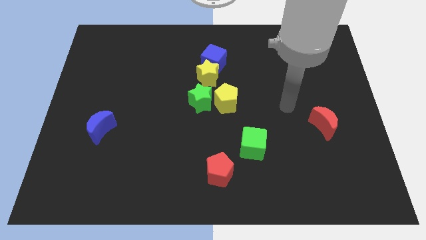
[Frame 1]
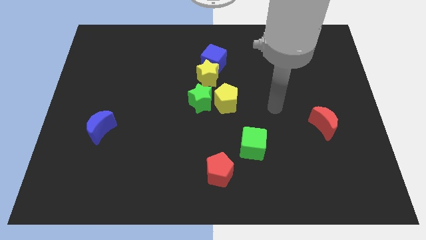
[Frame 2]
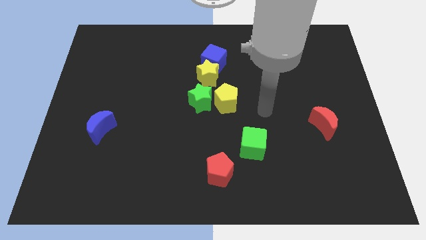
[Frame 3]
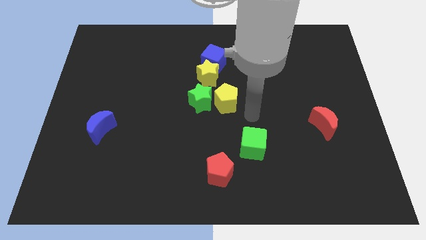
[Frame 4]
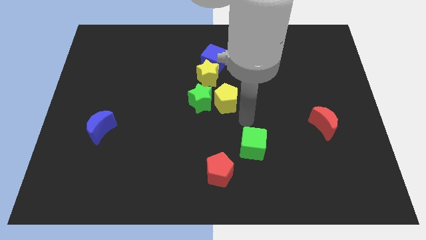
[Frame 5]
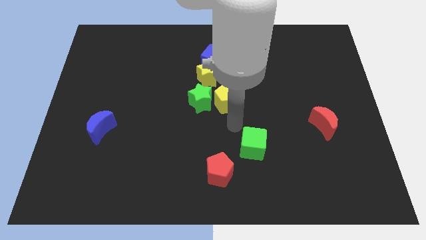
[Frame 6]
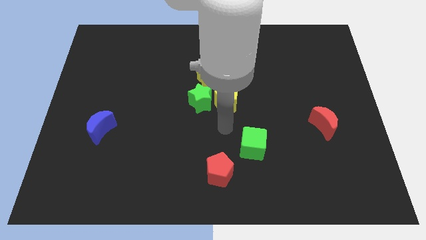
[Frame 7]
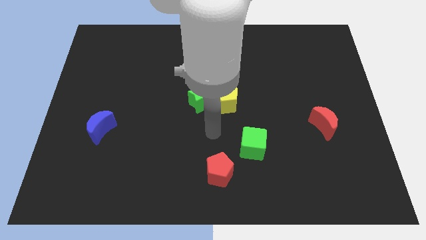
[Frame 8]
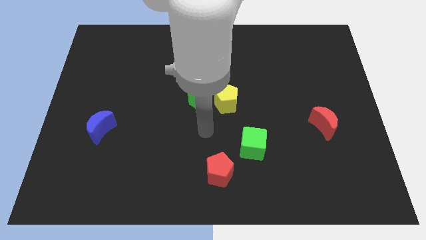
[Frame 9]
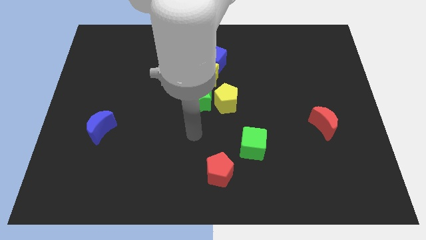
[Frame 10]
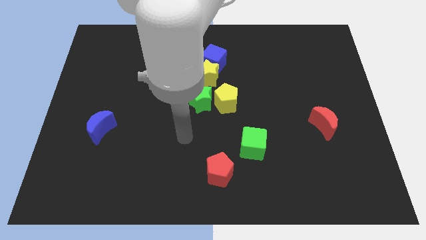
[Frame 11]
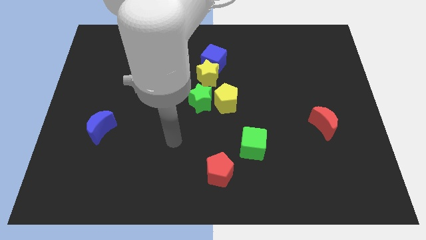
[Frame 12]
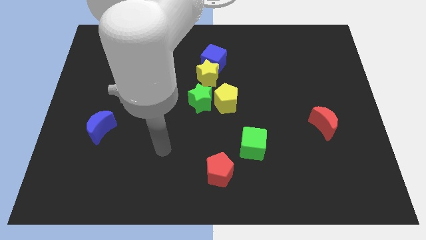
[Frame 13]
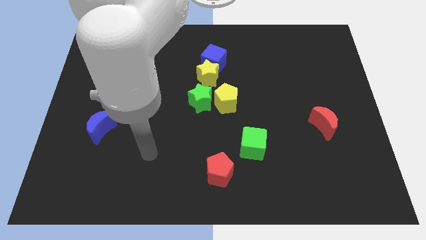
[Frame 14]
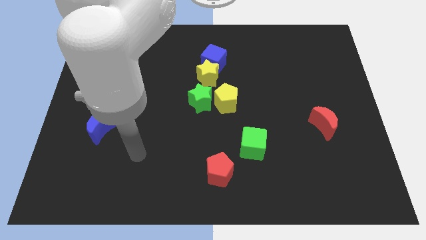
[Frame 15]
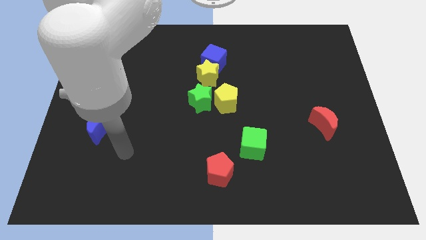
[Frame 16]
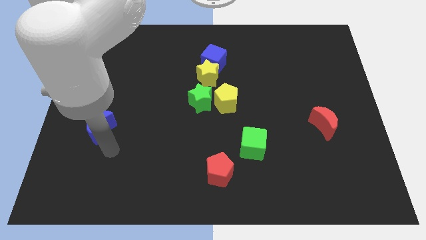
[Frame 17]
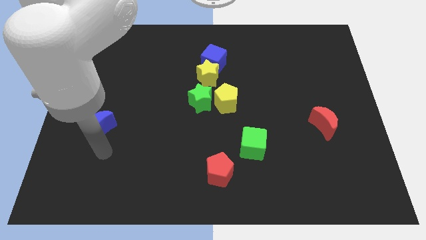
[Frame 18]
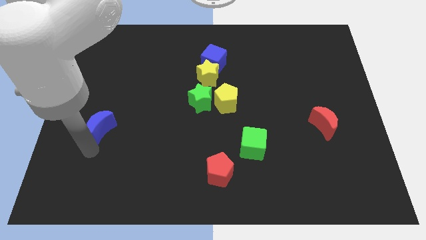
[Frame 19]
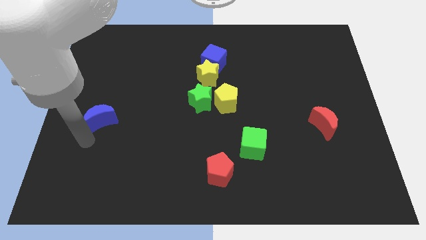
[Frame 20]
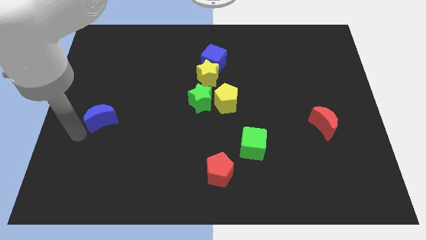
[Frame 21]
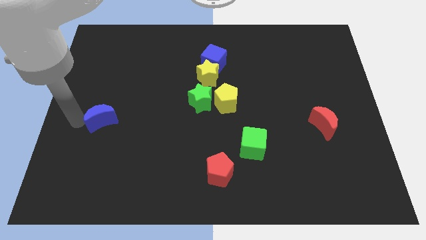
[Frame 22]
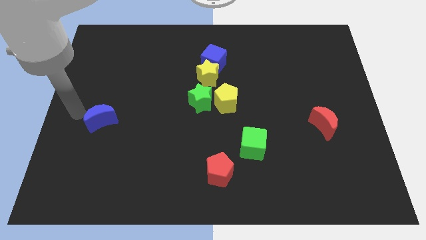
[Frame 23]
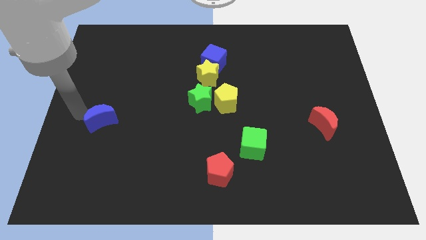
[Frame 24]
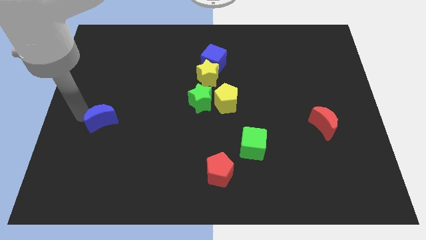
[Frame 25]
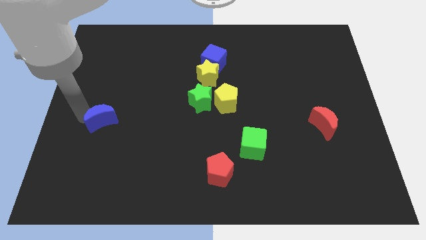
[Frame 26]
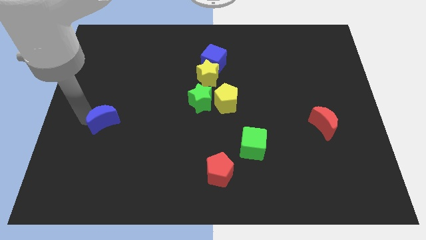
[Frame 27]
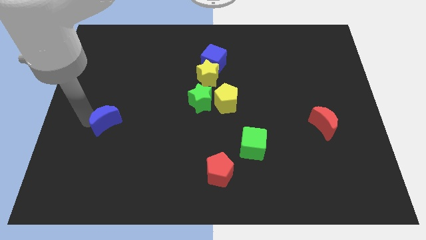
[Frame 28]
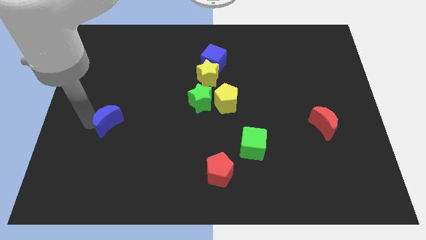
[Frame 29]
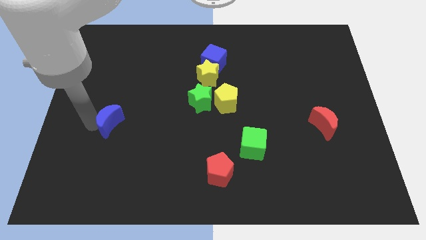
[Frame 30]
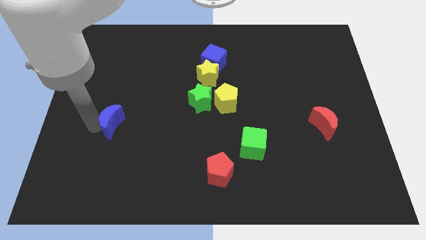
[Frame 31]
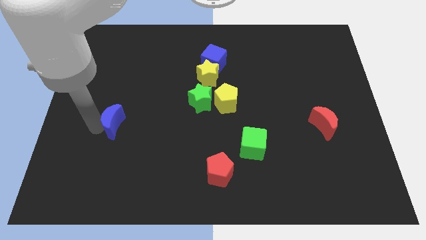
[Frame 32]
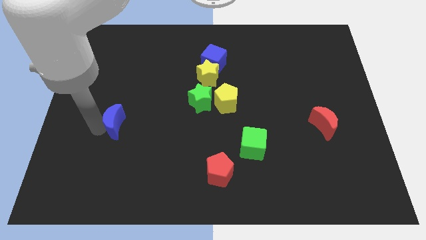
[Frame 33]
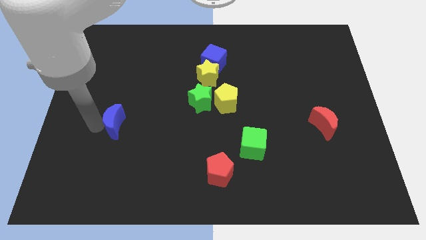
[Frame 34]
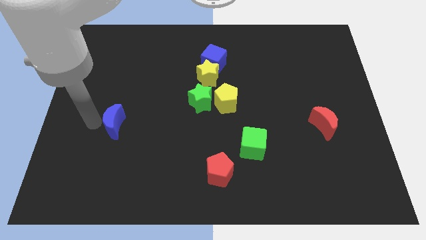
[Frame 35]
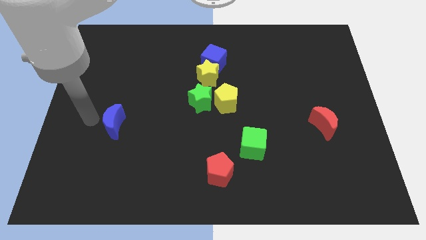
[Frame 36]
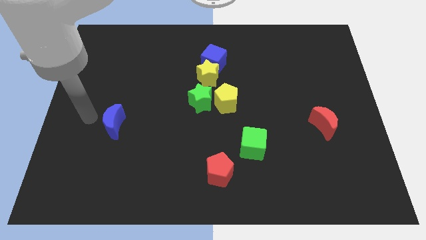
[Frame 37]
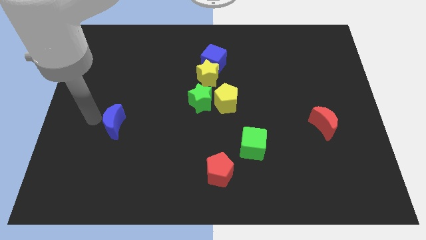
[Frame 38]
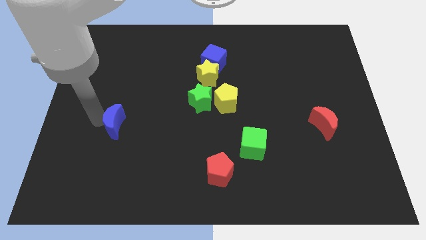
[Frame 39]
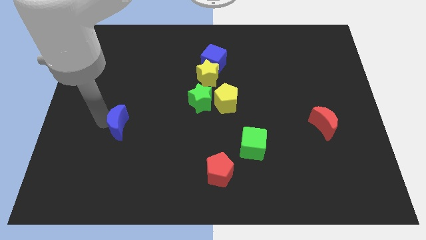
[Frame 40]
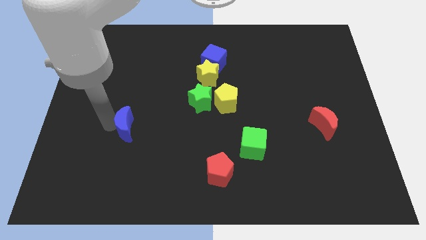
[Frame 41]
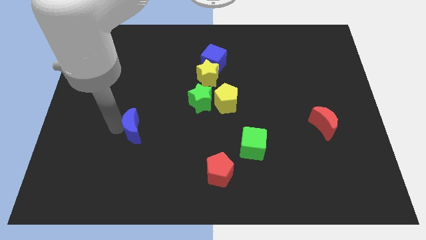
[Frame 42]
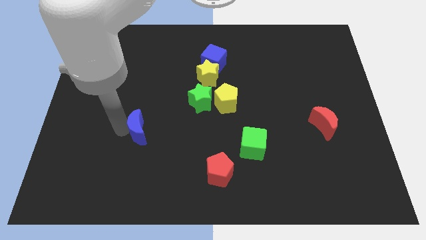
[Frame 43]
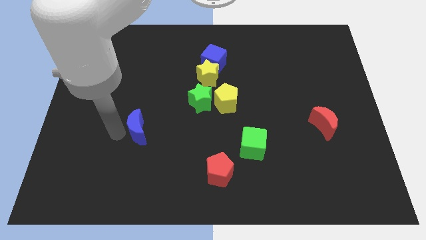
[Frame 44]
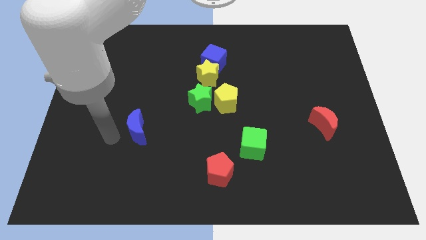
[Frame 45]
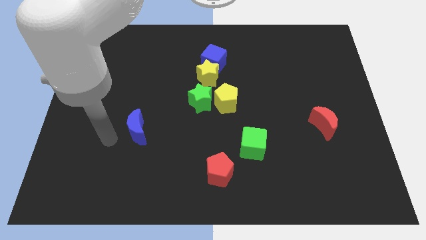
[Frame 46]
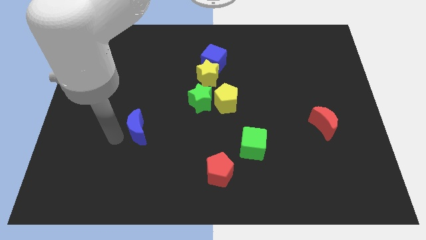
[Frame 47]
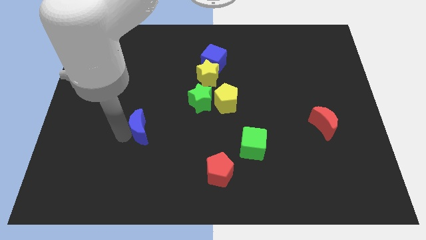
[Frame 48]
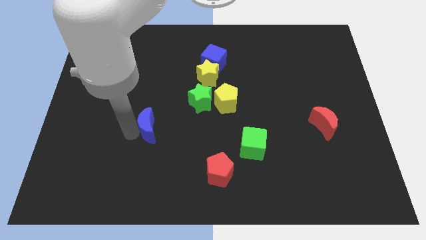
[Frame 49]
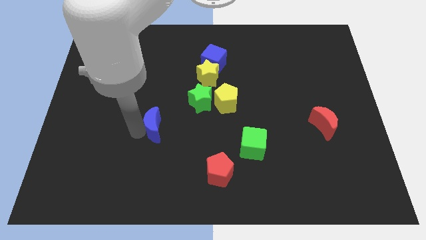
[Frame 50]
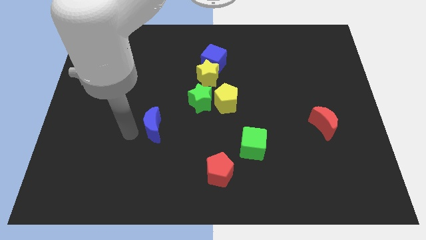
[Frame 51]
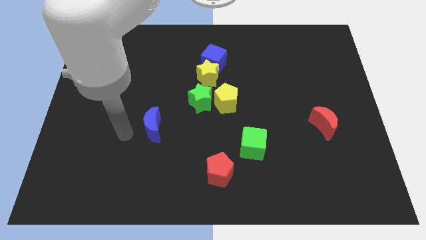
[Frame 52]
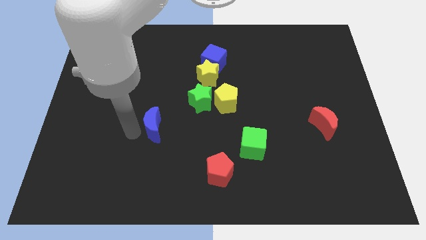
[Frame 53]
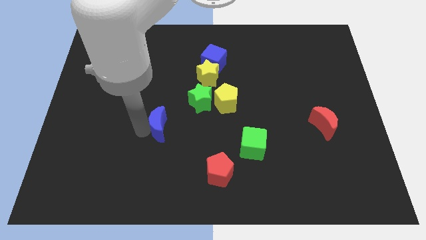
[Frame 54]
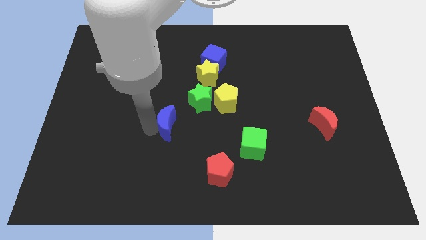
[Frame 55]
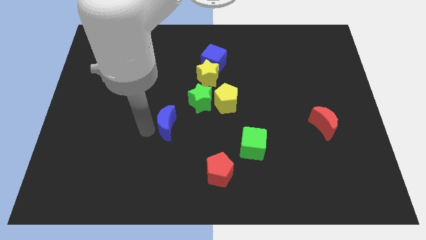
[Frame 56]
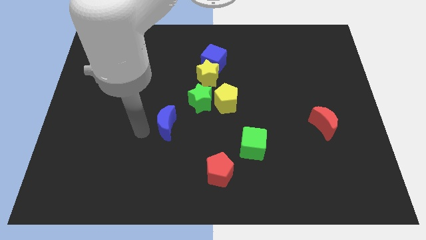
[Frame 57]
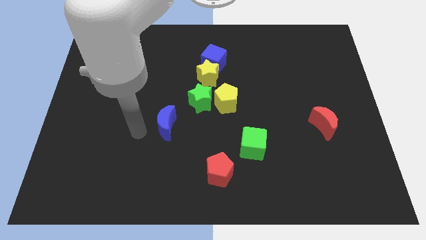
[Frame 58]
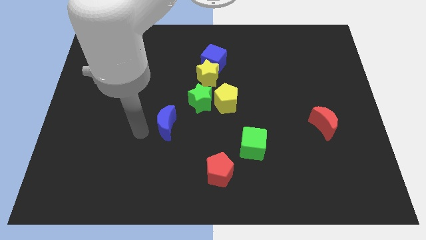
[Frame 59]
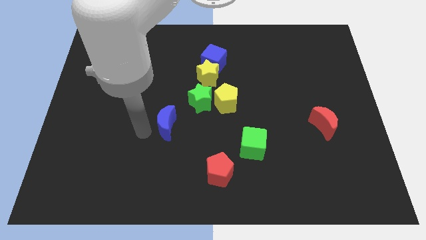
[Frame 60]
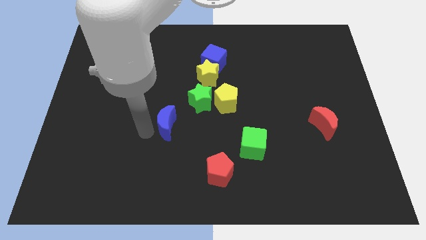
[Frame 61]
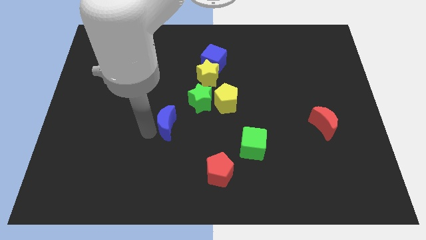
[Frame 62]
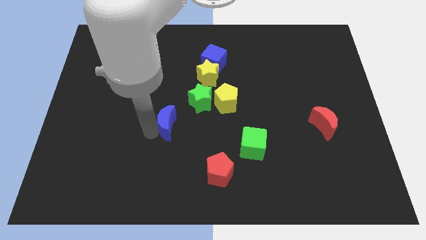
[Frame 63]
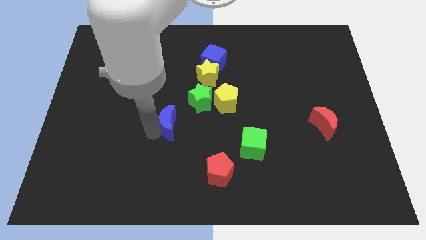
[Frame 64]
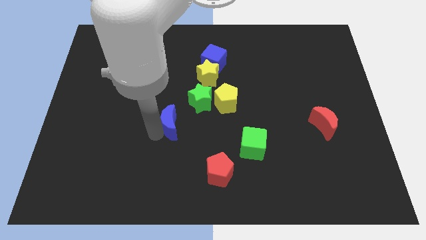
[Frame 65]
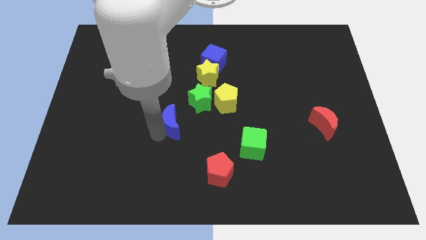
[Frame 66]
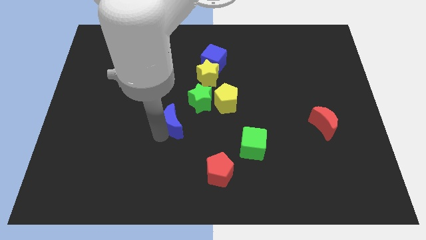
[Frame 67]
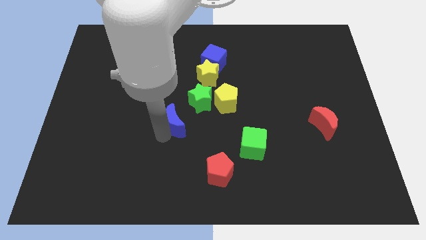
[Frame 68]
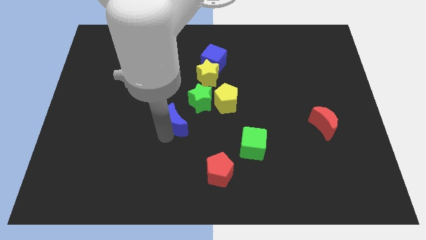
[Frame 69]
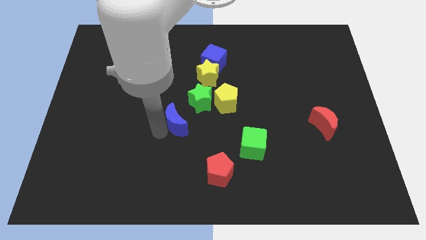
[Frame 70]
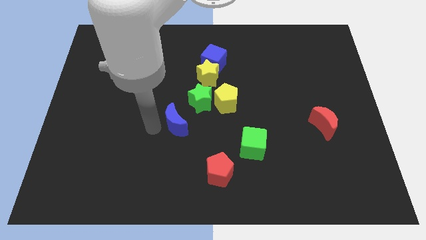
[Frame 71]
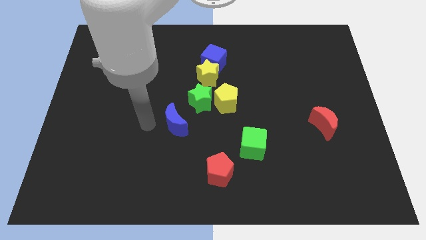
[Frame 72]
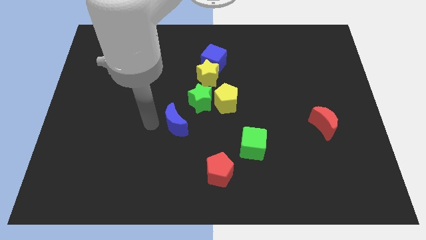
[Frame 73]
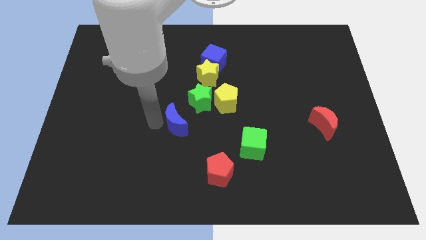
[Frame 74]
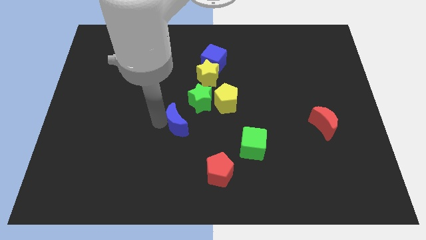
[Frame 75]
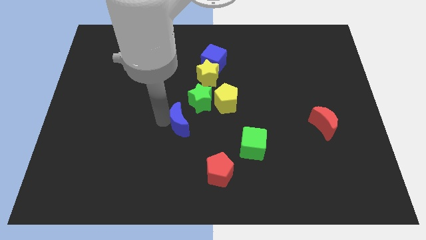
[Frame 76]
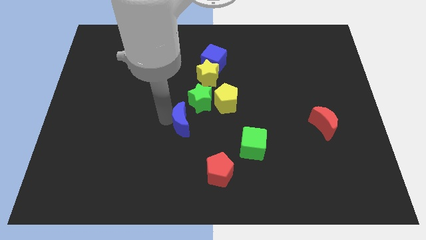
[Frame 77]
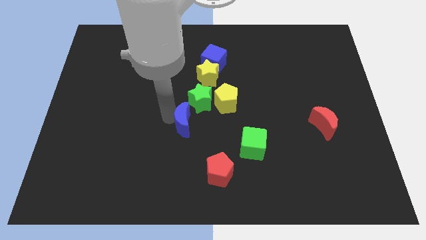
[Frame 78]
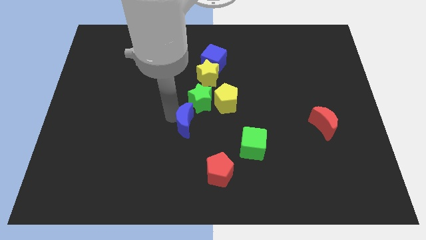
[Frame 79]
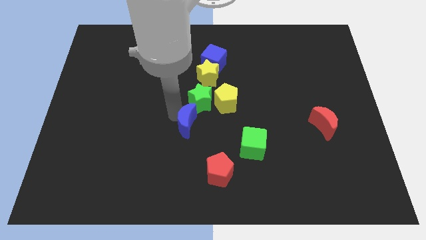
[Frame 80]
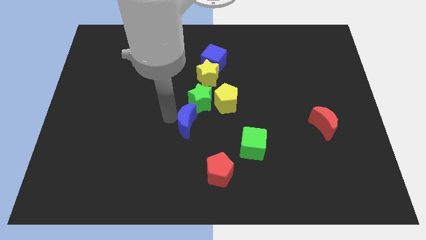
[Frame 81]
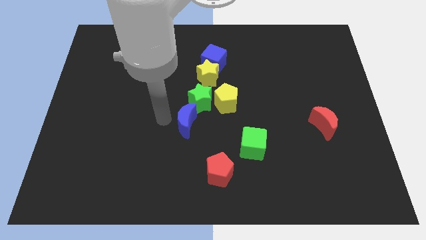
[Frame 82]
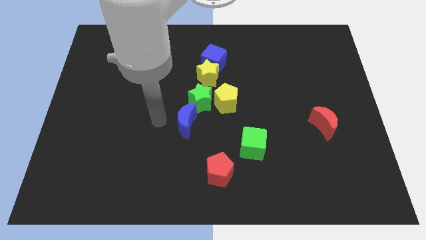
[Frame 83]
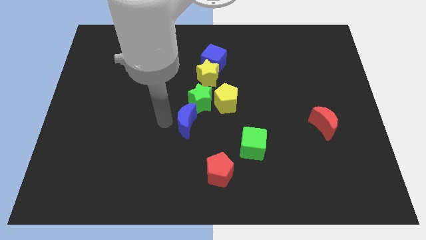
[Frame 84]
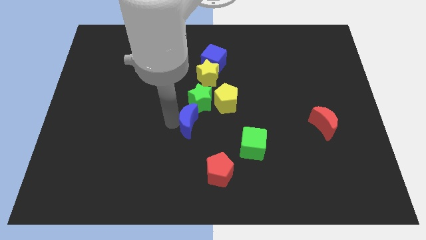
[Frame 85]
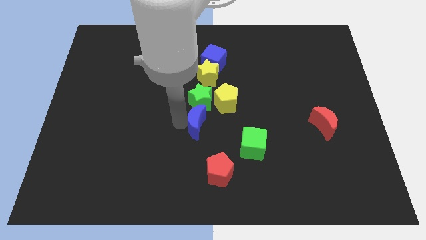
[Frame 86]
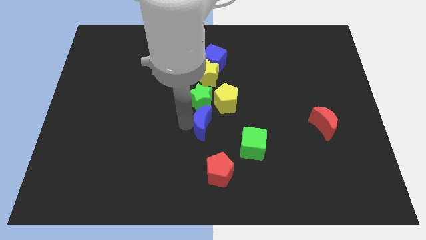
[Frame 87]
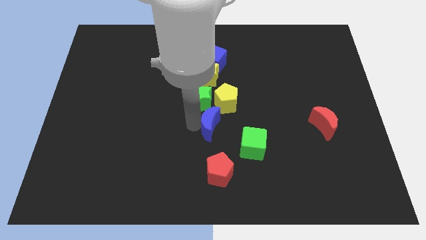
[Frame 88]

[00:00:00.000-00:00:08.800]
push the blue moon to the top left of the green cube
